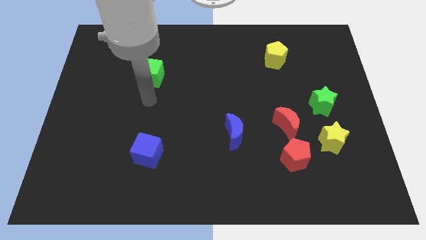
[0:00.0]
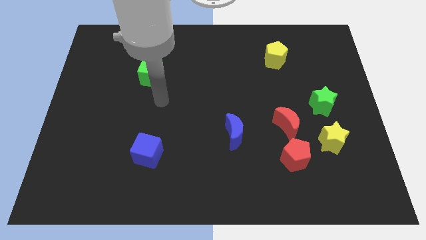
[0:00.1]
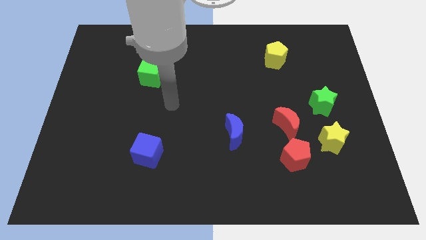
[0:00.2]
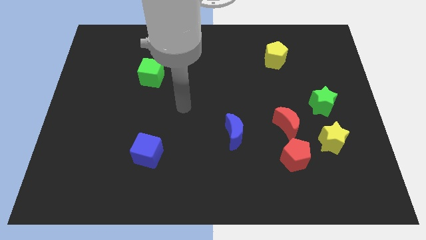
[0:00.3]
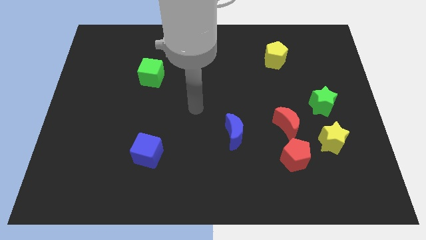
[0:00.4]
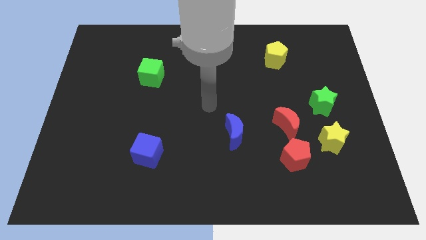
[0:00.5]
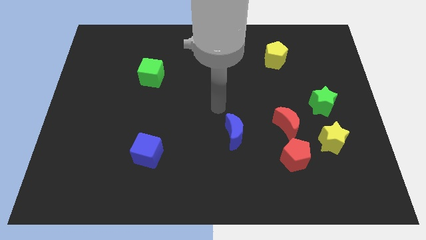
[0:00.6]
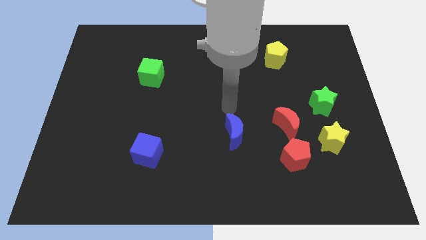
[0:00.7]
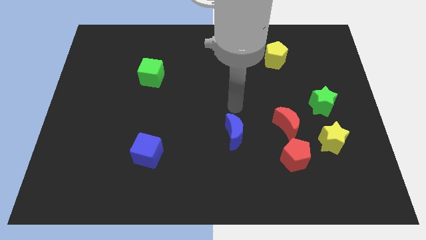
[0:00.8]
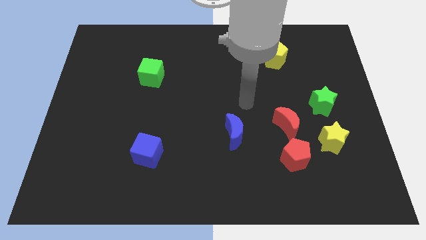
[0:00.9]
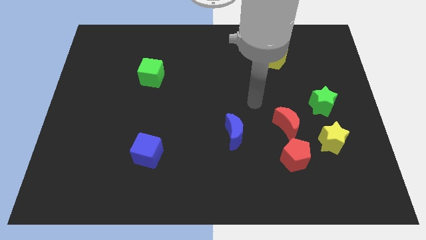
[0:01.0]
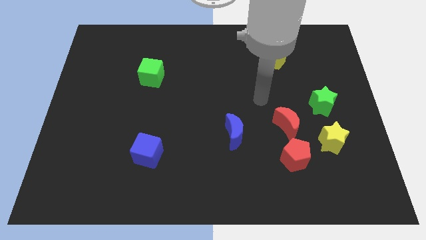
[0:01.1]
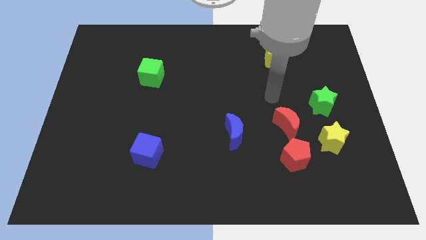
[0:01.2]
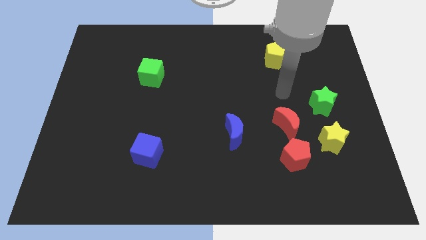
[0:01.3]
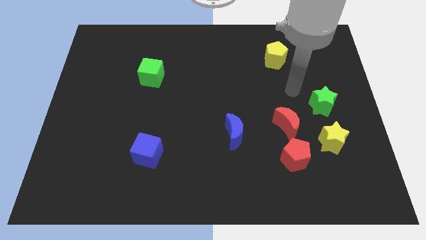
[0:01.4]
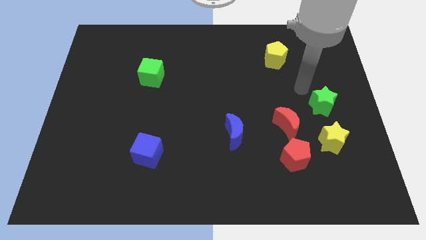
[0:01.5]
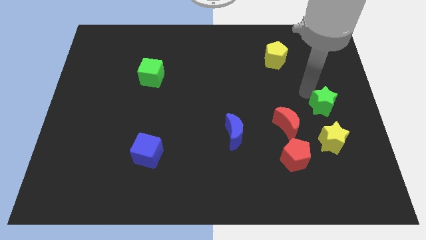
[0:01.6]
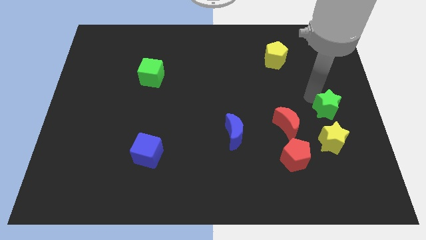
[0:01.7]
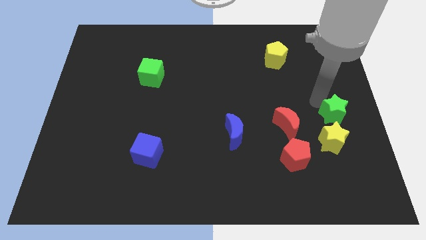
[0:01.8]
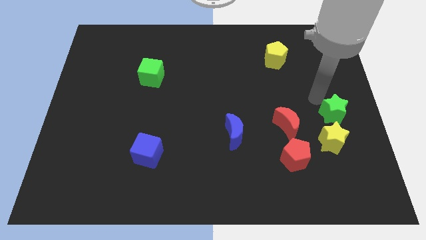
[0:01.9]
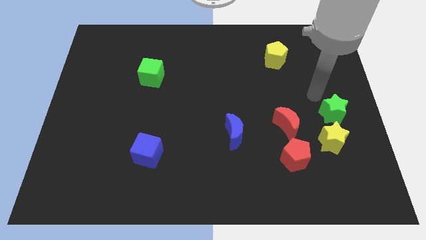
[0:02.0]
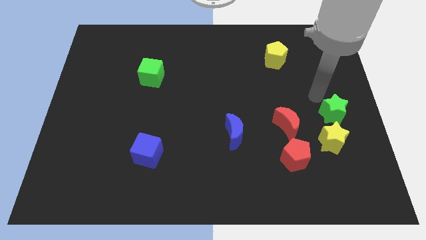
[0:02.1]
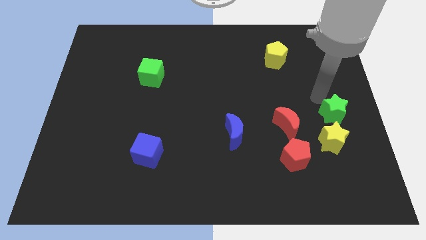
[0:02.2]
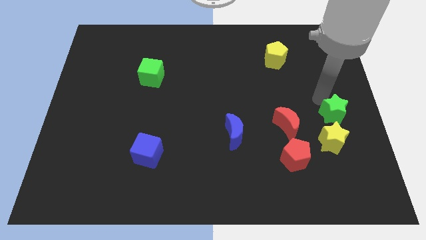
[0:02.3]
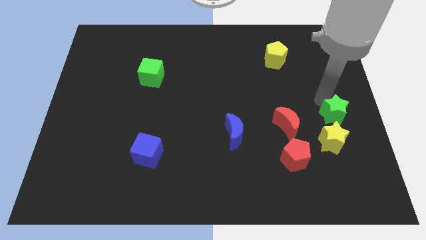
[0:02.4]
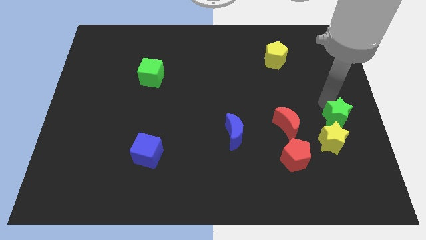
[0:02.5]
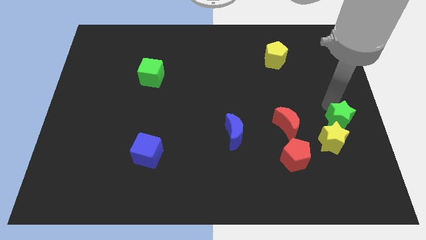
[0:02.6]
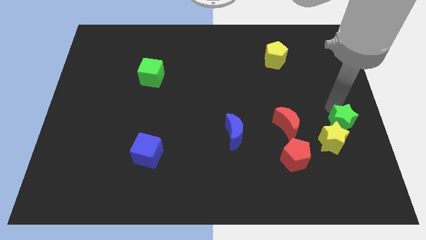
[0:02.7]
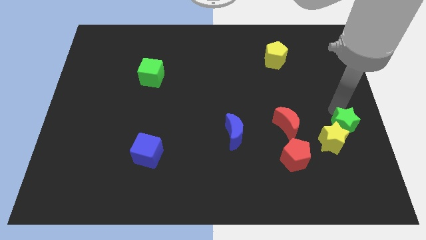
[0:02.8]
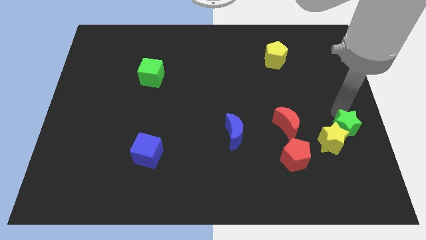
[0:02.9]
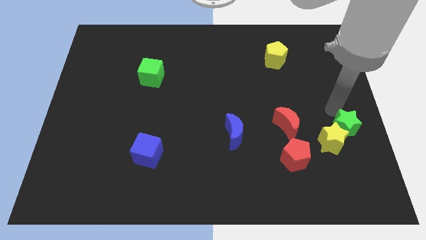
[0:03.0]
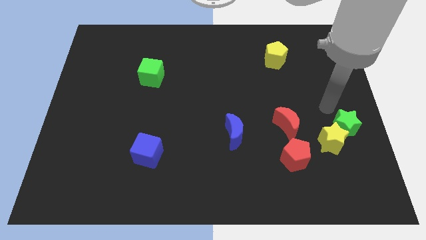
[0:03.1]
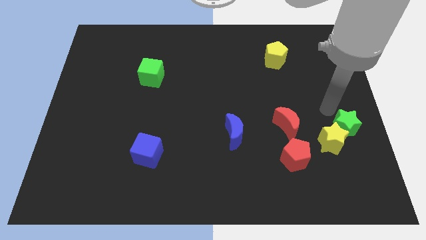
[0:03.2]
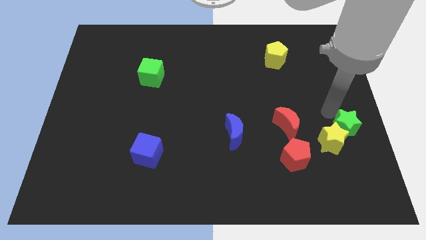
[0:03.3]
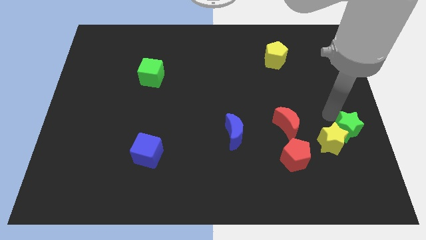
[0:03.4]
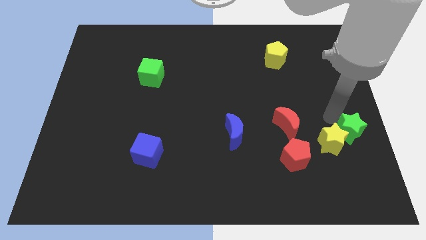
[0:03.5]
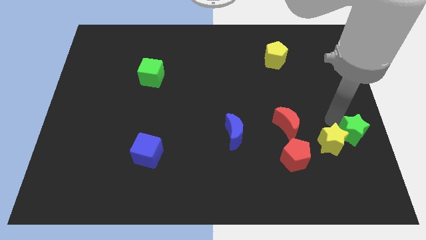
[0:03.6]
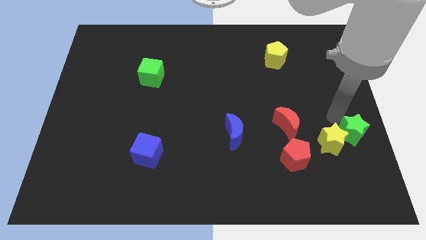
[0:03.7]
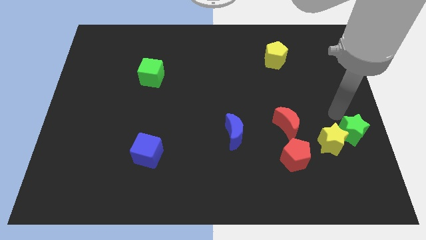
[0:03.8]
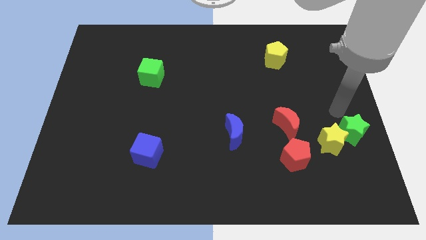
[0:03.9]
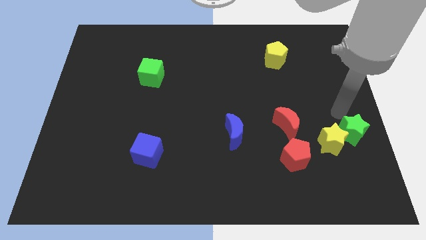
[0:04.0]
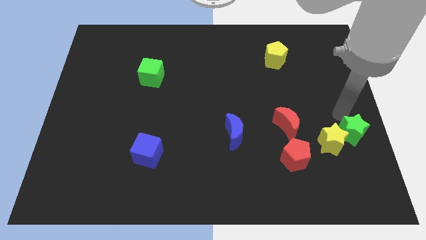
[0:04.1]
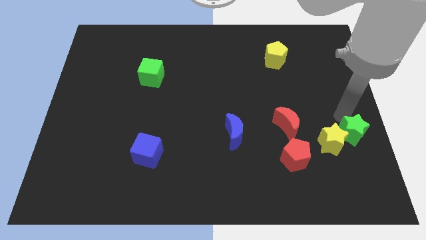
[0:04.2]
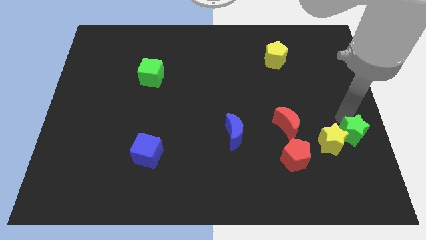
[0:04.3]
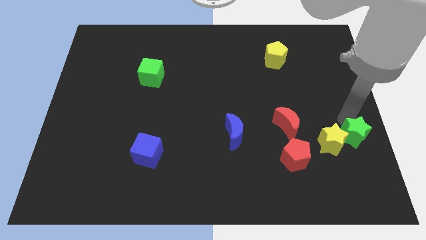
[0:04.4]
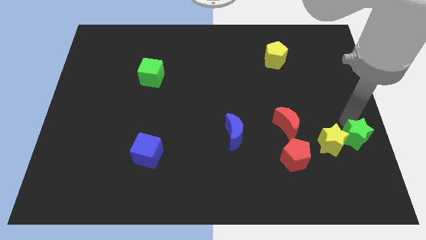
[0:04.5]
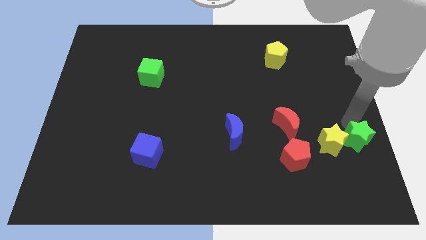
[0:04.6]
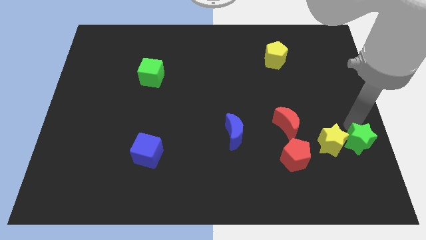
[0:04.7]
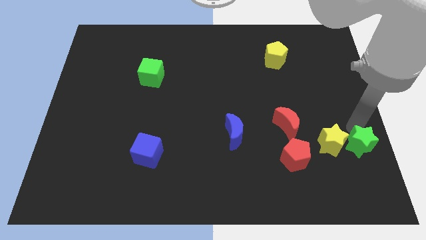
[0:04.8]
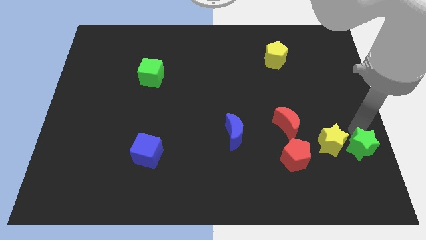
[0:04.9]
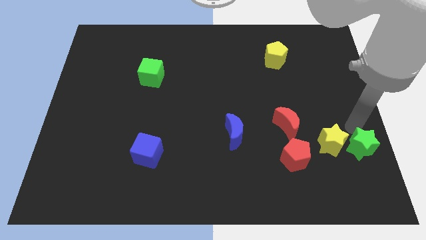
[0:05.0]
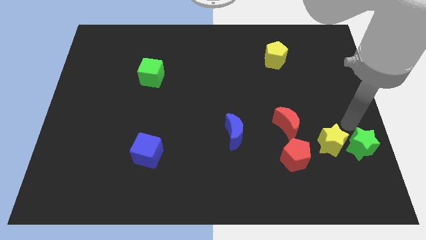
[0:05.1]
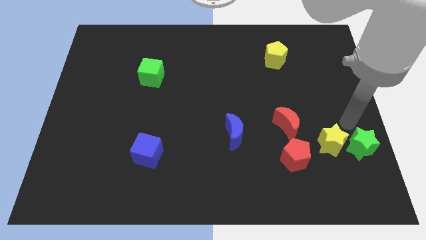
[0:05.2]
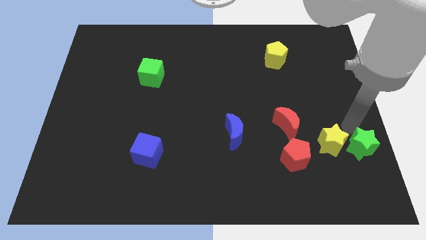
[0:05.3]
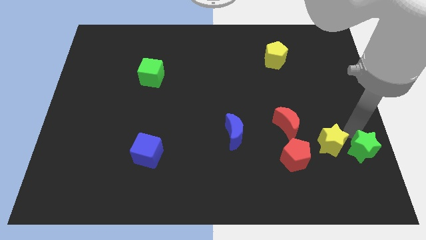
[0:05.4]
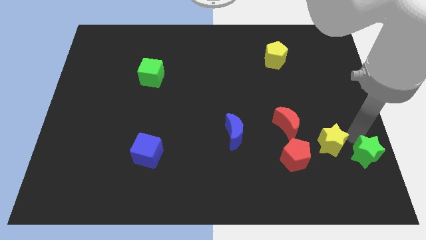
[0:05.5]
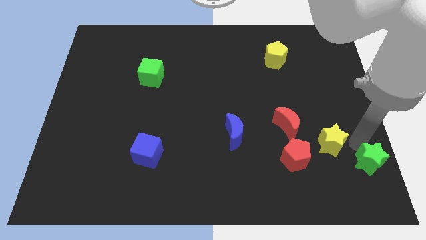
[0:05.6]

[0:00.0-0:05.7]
move the green star to the bottom right
